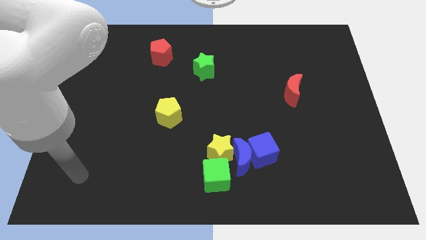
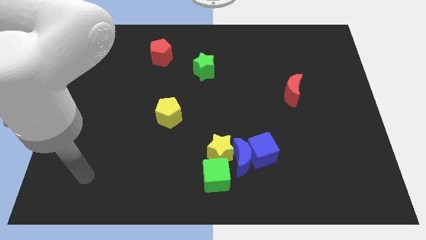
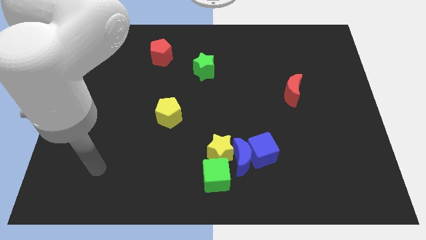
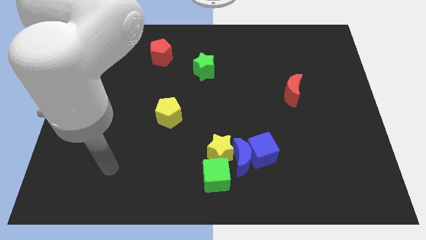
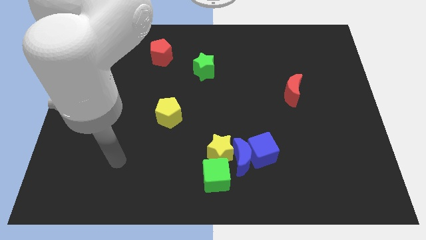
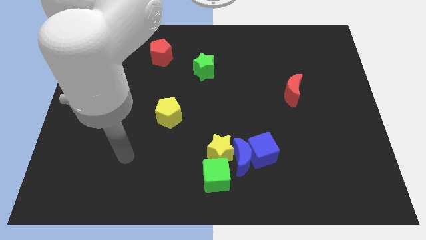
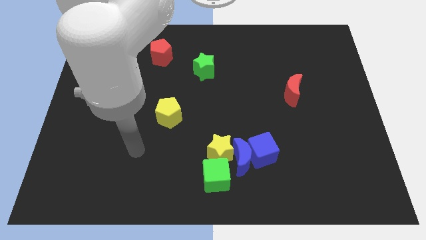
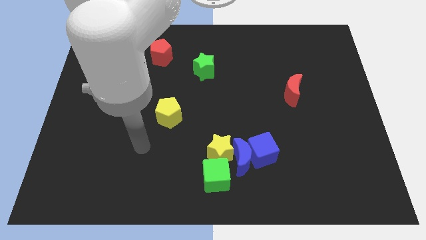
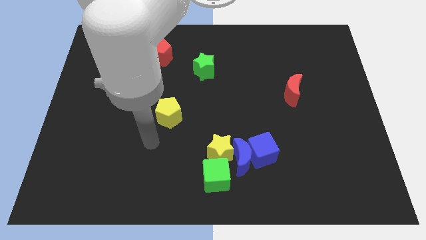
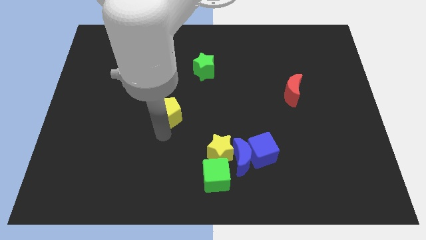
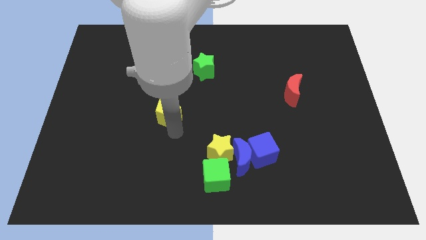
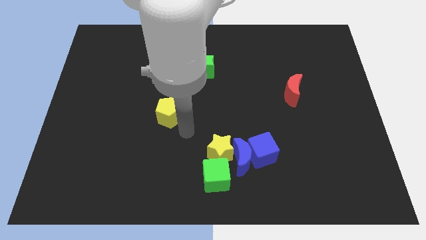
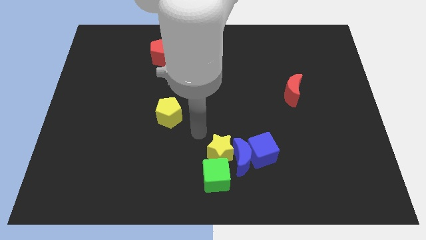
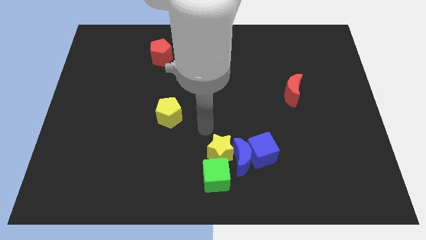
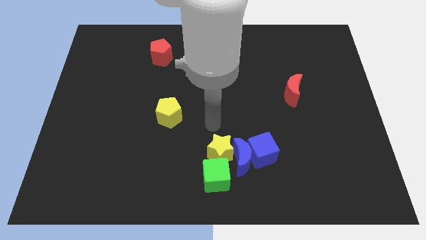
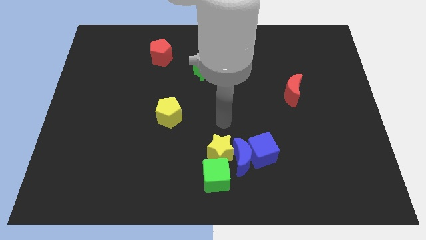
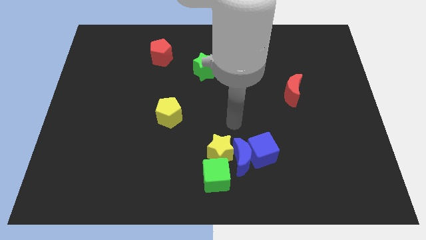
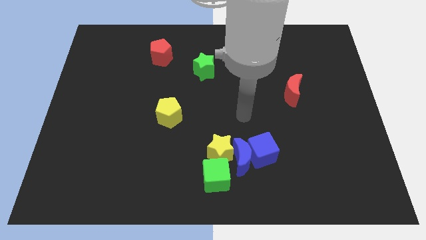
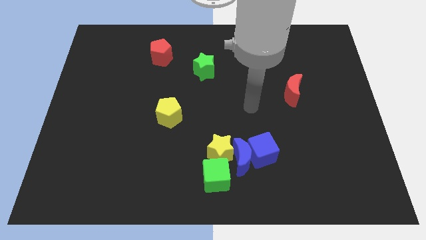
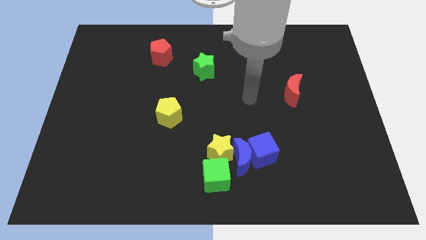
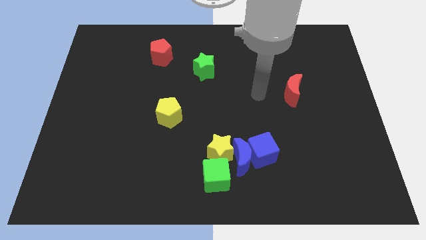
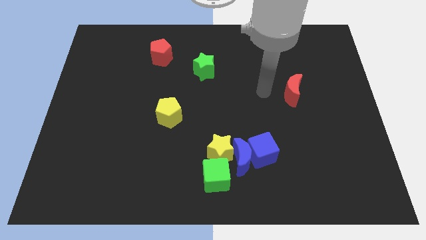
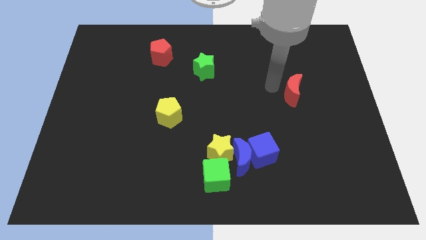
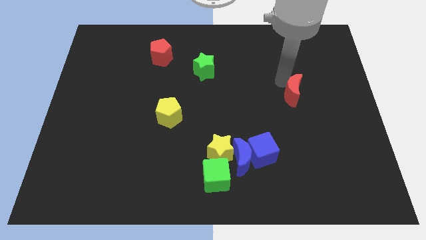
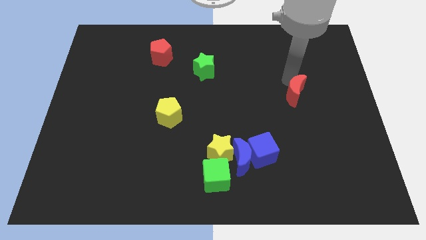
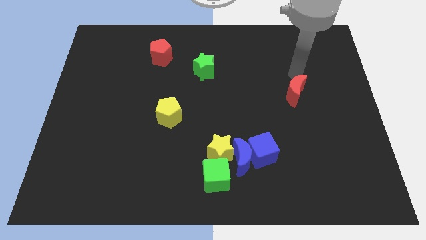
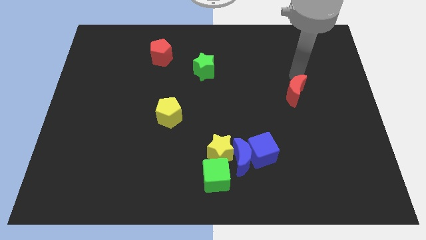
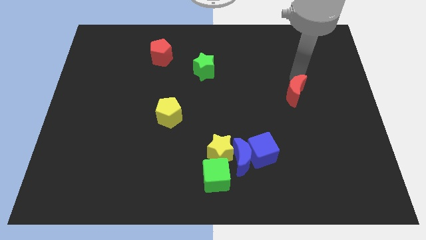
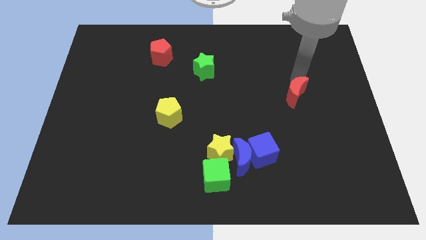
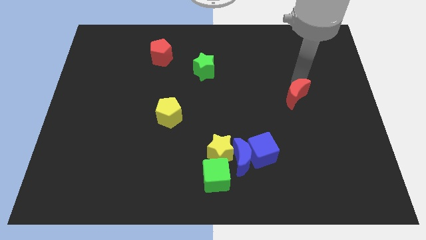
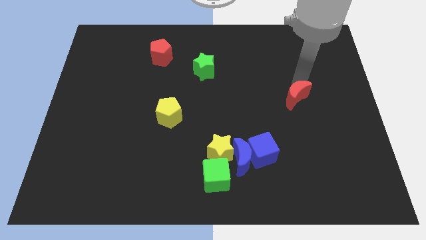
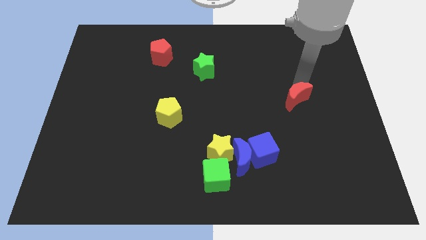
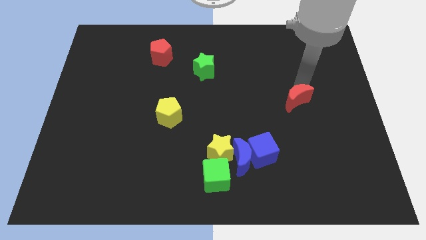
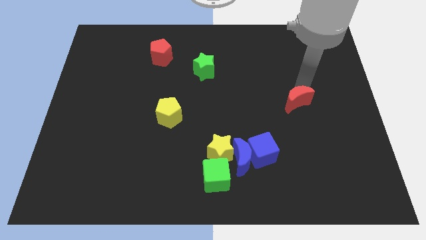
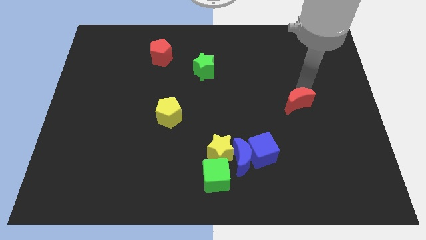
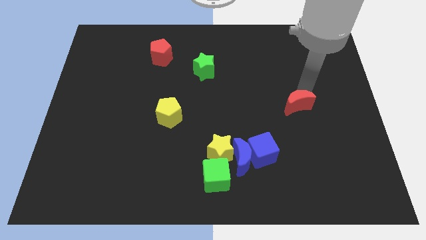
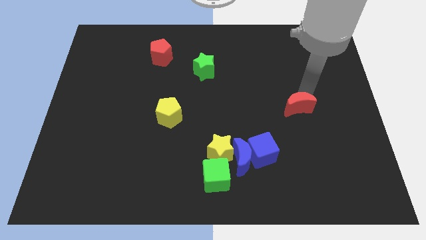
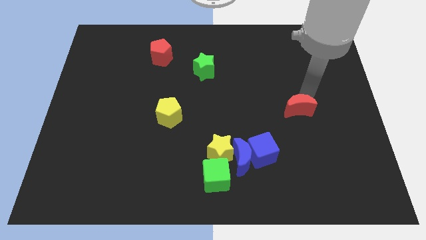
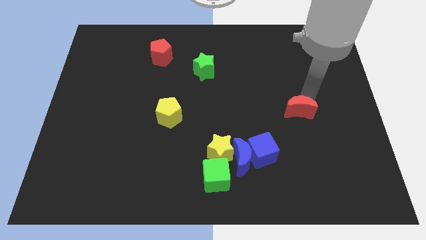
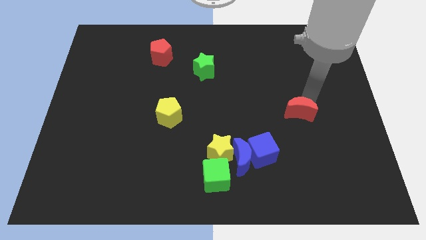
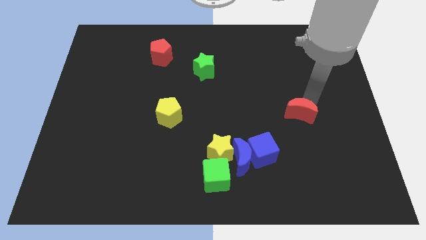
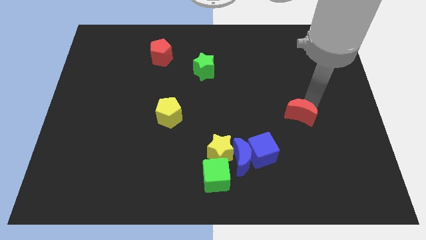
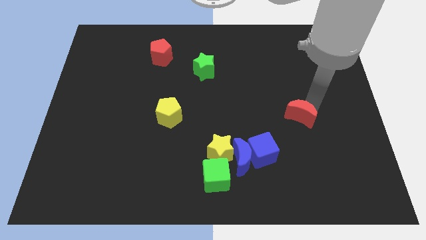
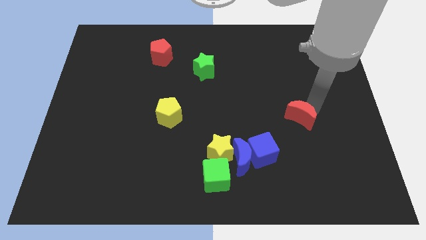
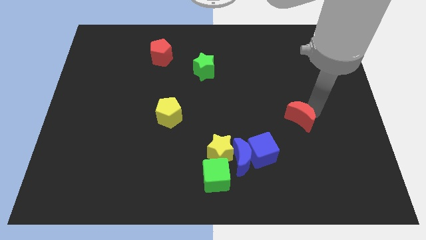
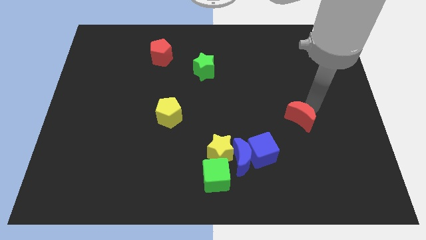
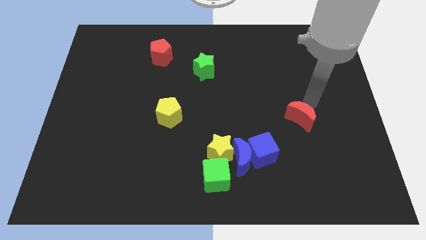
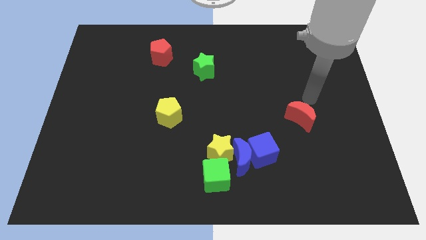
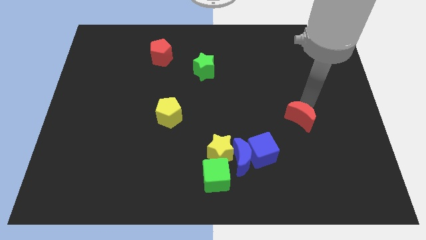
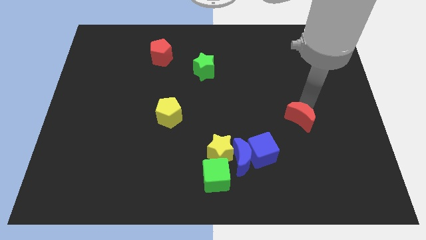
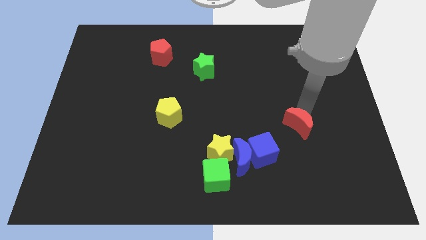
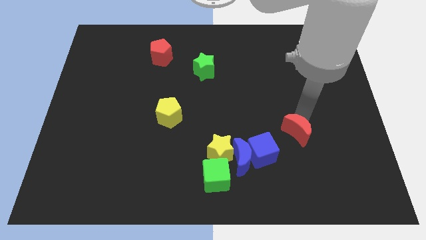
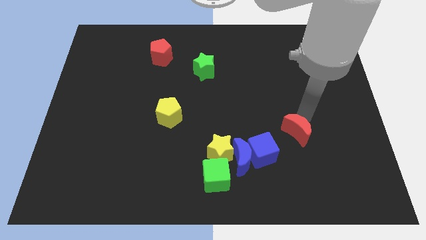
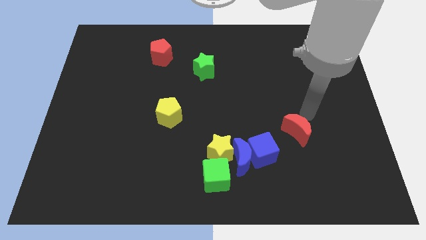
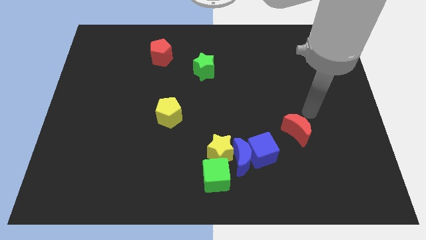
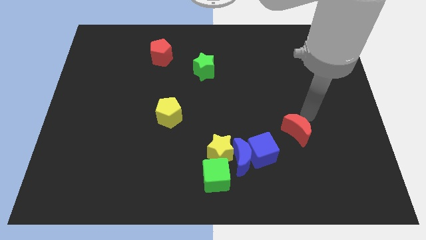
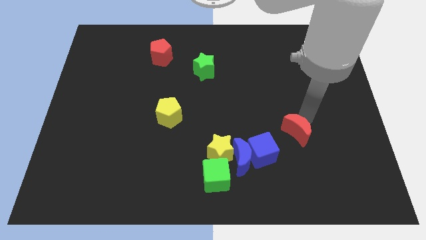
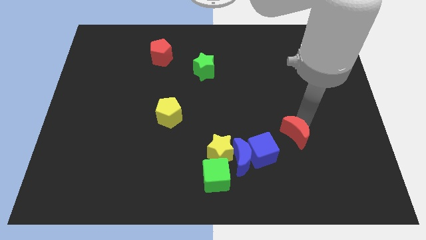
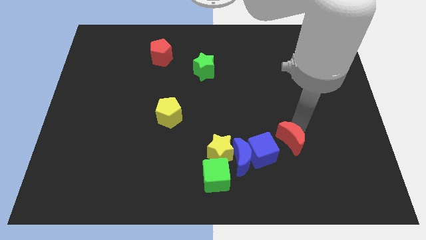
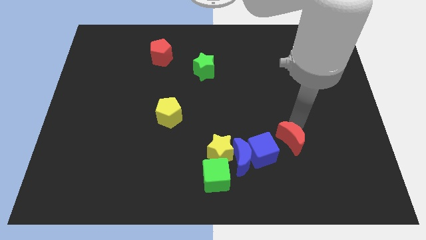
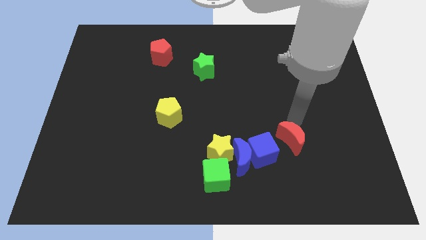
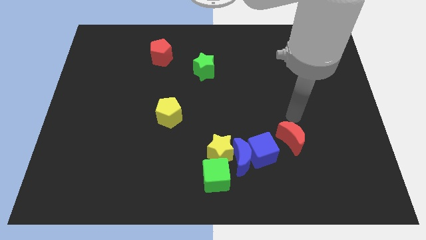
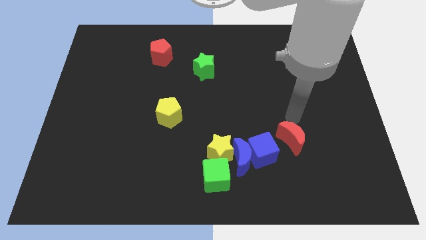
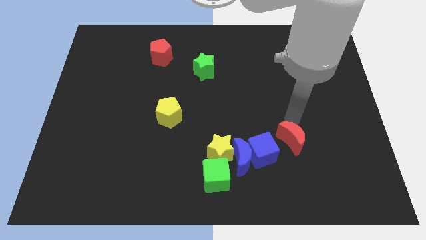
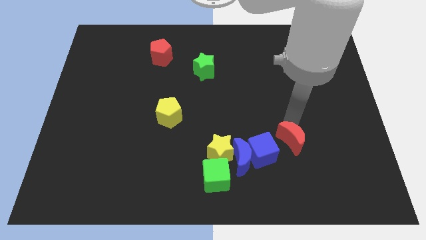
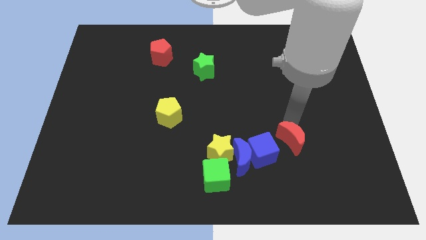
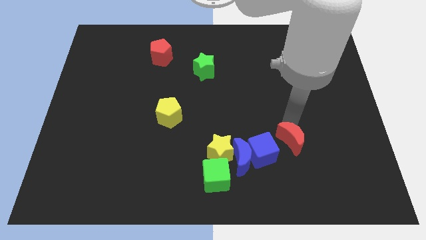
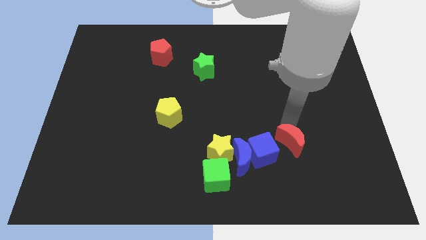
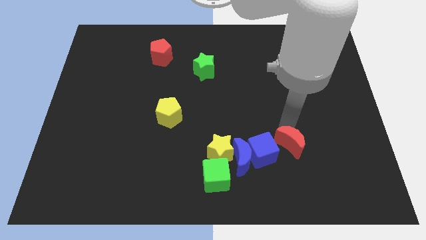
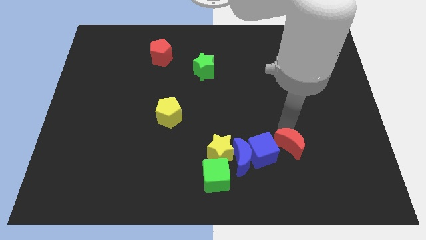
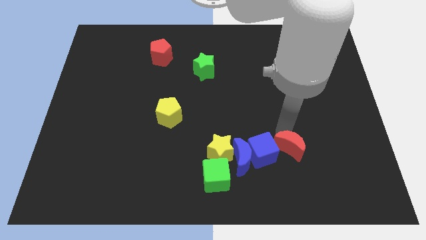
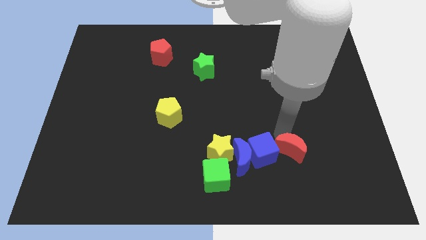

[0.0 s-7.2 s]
put the red moon to the bottom right of the blue cube
